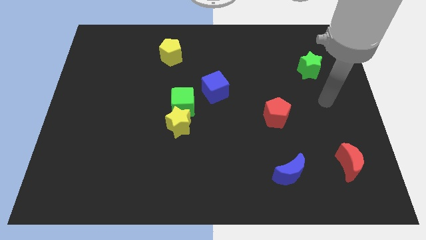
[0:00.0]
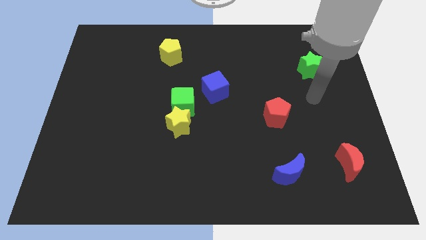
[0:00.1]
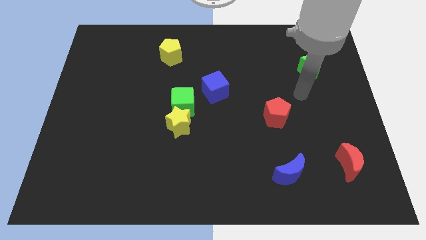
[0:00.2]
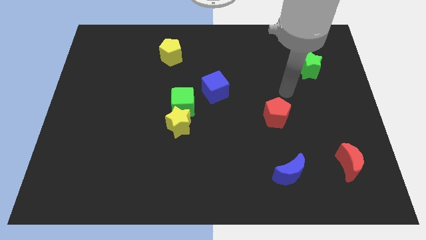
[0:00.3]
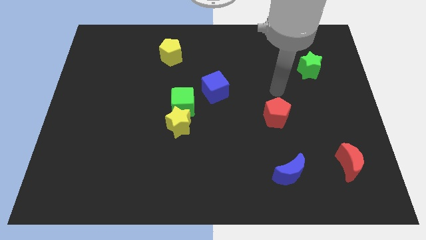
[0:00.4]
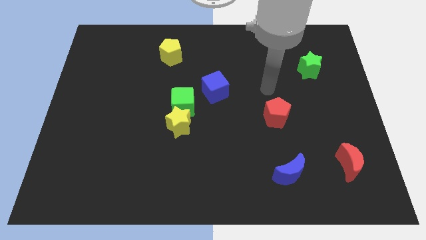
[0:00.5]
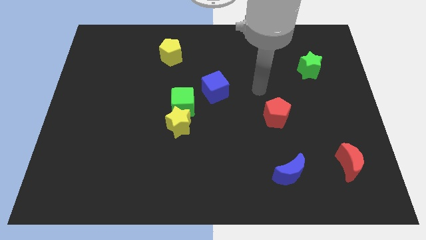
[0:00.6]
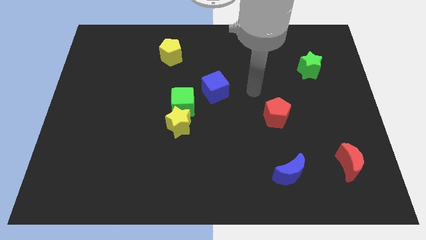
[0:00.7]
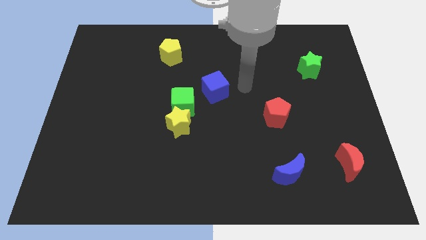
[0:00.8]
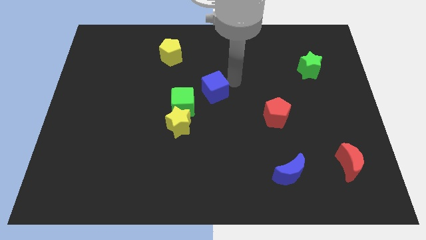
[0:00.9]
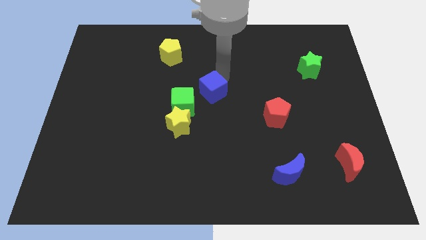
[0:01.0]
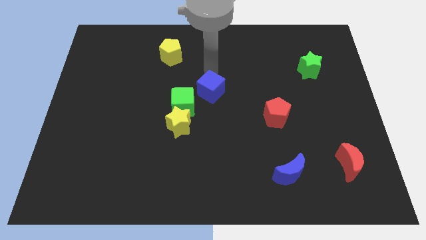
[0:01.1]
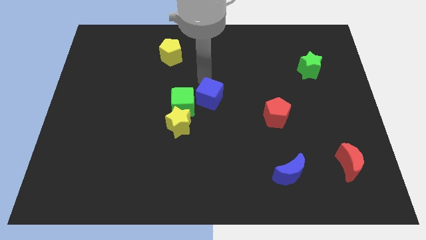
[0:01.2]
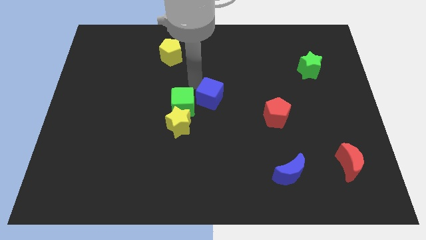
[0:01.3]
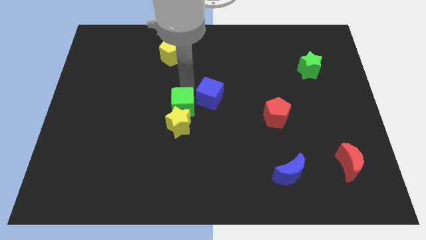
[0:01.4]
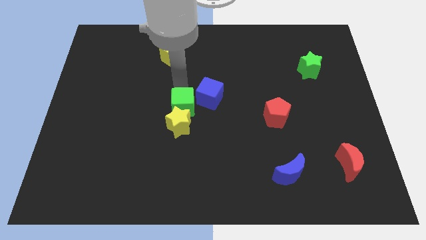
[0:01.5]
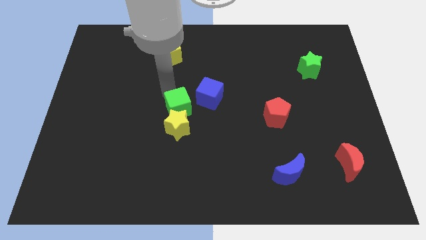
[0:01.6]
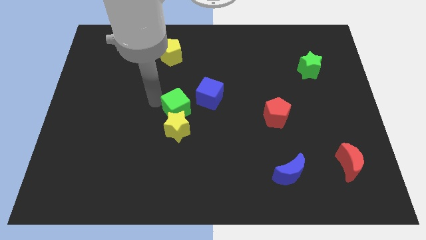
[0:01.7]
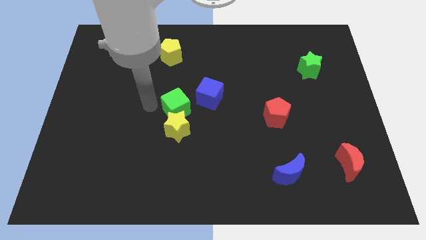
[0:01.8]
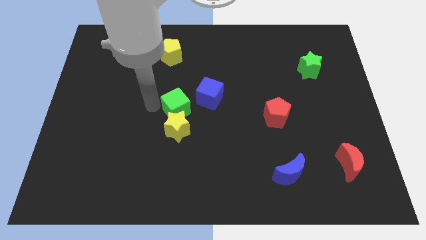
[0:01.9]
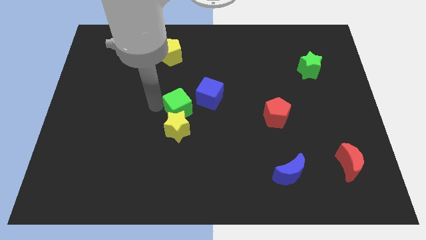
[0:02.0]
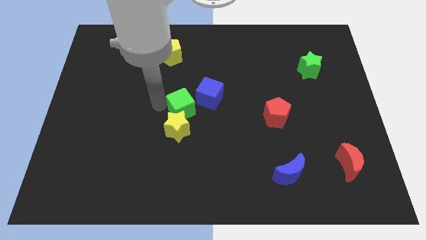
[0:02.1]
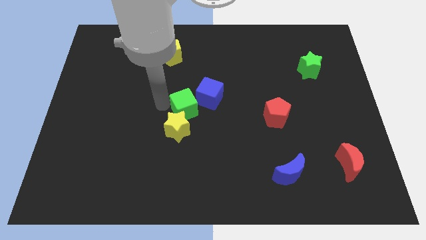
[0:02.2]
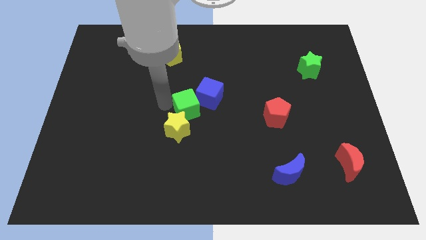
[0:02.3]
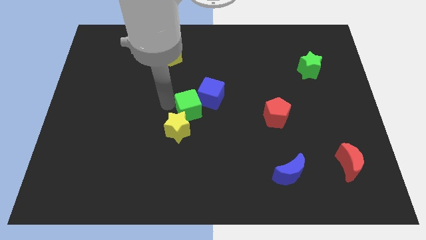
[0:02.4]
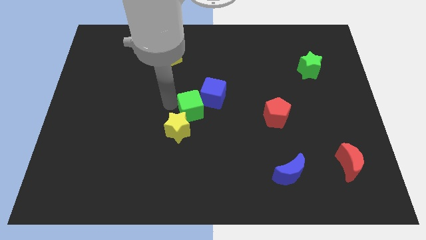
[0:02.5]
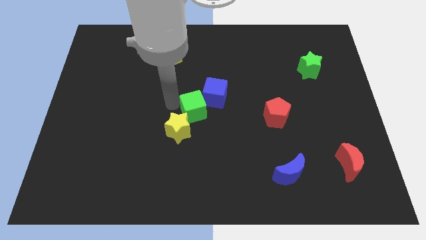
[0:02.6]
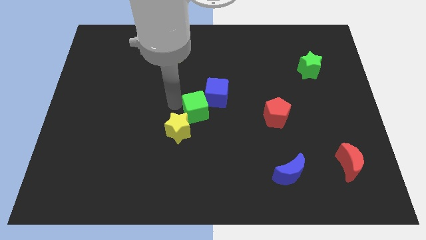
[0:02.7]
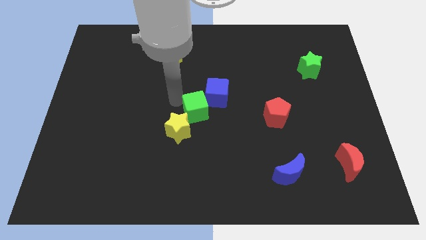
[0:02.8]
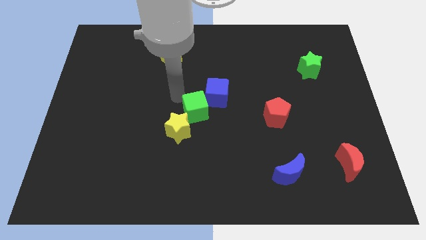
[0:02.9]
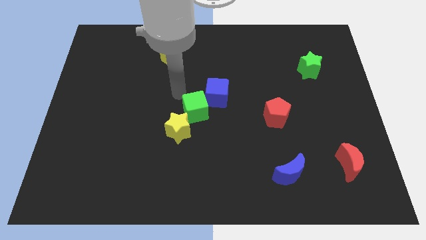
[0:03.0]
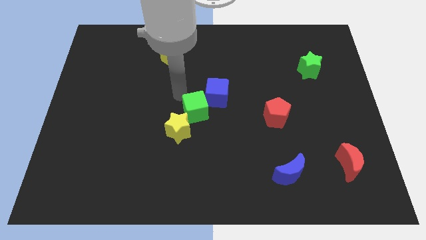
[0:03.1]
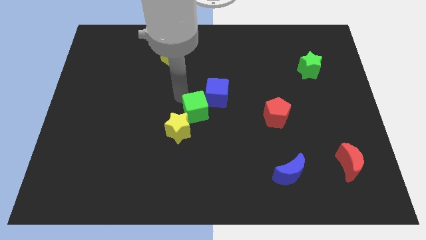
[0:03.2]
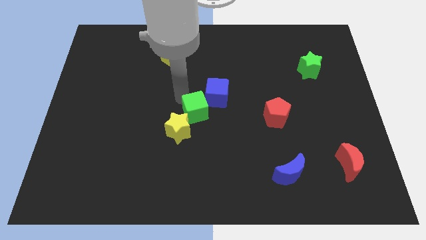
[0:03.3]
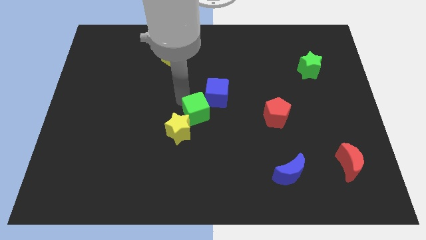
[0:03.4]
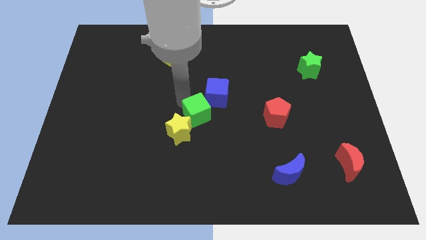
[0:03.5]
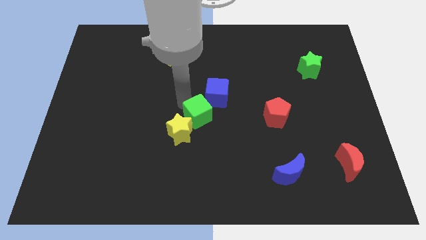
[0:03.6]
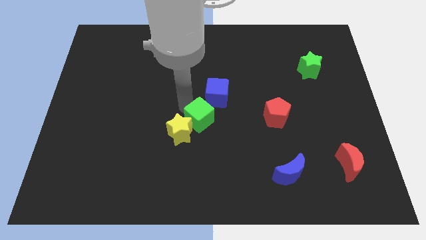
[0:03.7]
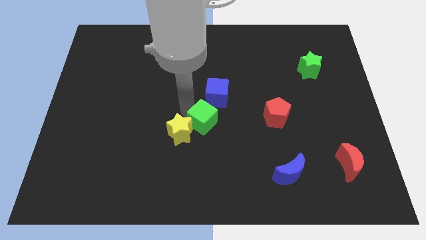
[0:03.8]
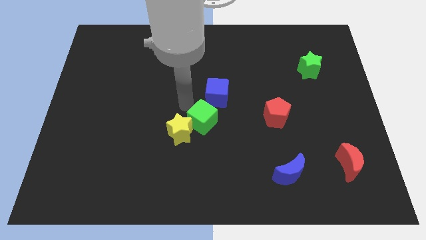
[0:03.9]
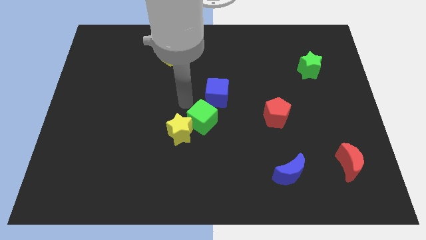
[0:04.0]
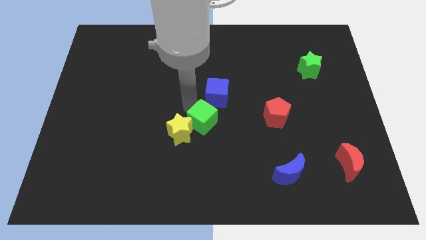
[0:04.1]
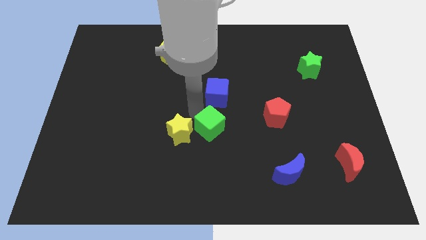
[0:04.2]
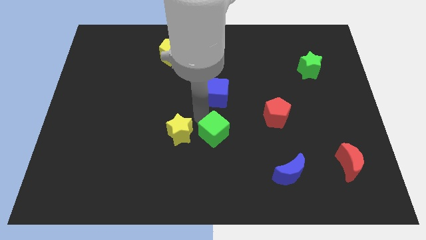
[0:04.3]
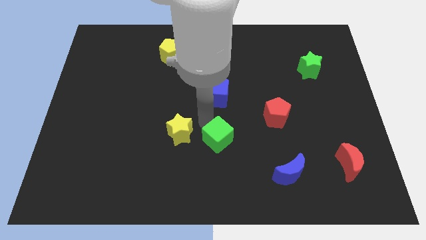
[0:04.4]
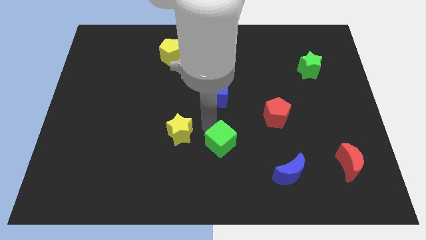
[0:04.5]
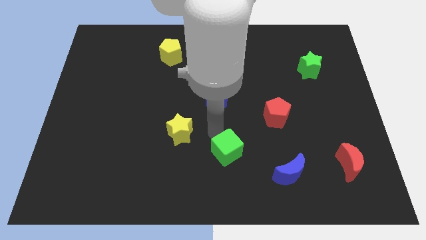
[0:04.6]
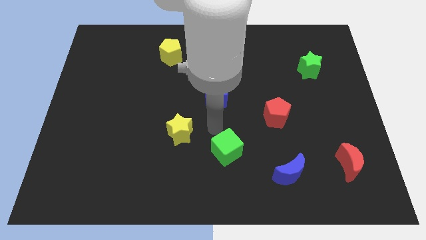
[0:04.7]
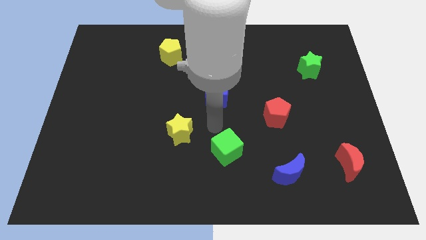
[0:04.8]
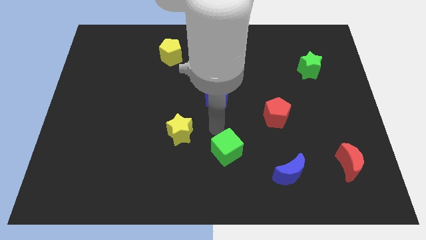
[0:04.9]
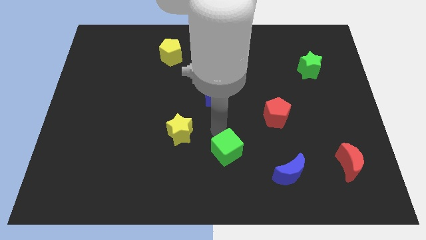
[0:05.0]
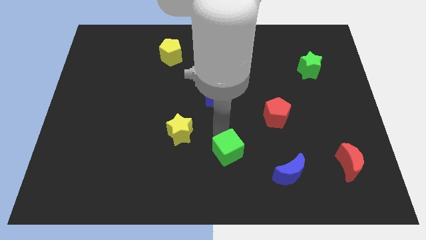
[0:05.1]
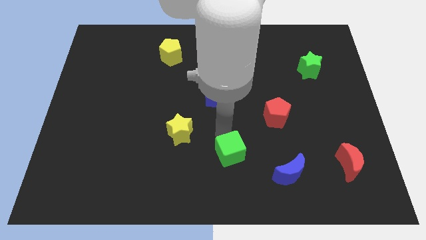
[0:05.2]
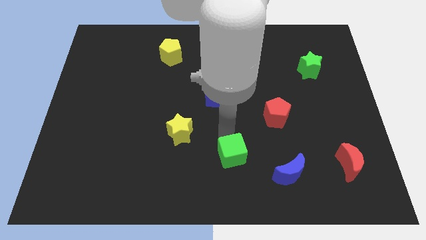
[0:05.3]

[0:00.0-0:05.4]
move the green cube to the left side of the blue moon
